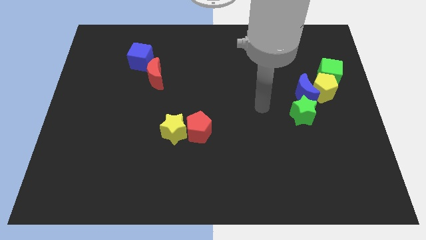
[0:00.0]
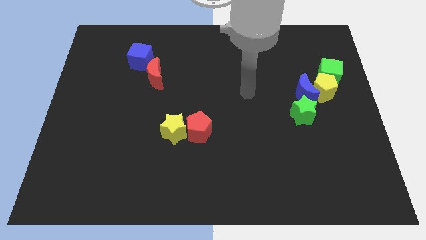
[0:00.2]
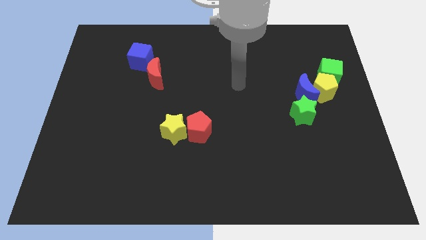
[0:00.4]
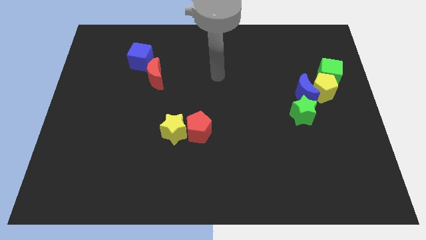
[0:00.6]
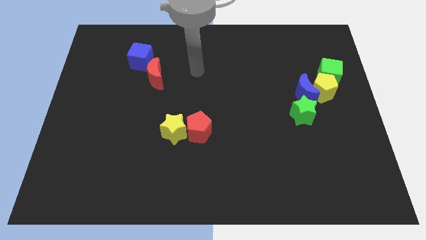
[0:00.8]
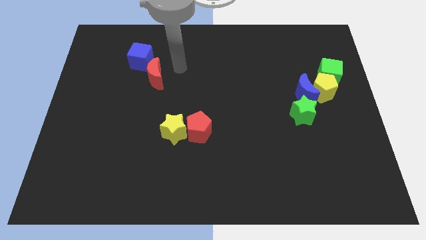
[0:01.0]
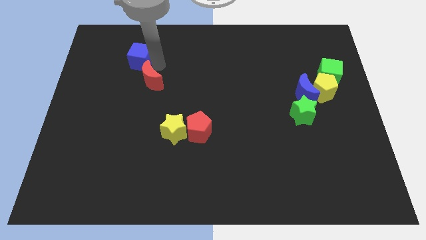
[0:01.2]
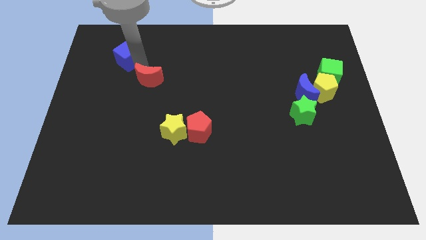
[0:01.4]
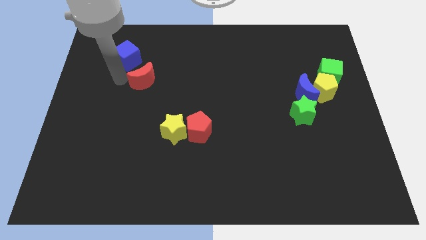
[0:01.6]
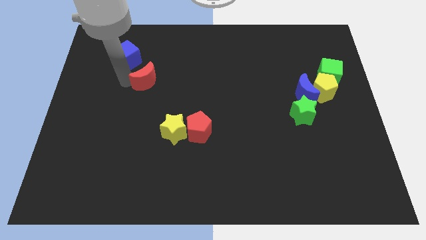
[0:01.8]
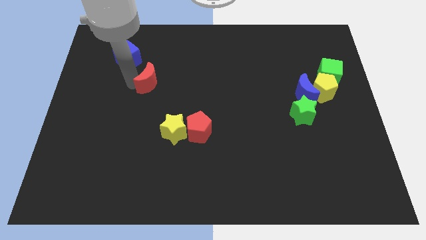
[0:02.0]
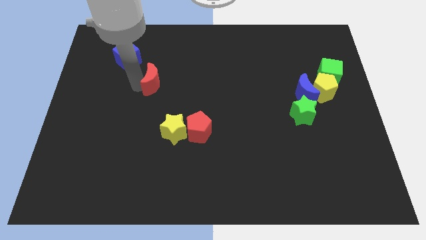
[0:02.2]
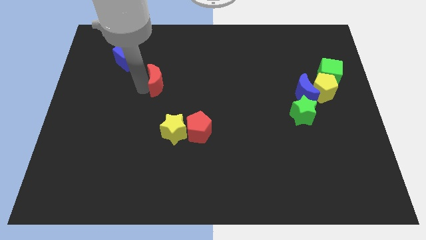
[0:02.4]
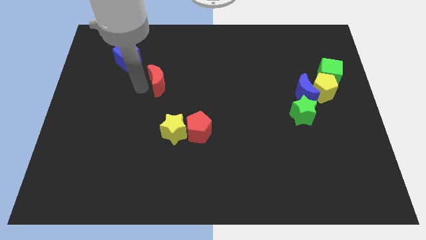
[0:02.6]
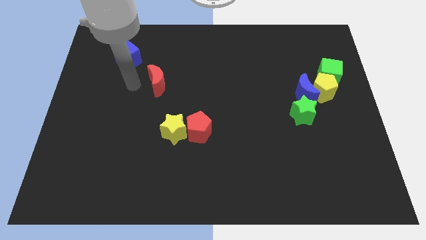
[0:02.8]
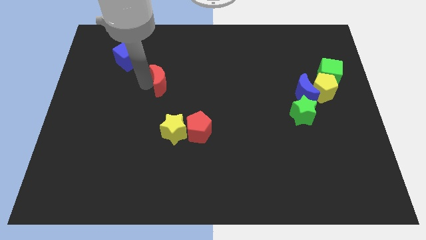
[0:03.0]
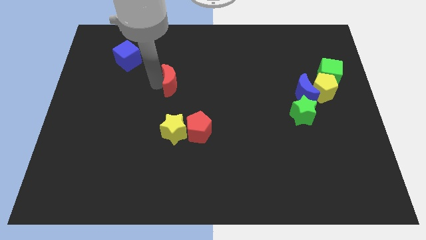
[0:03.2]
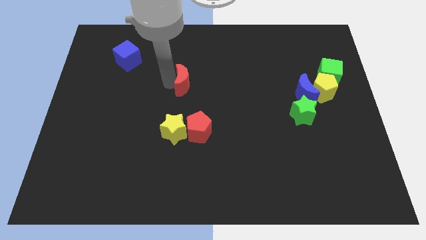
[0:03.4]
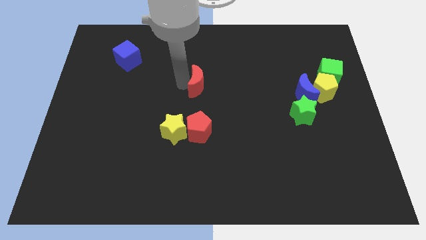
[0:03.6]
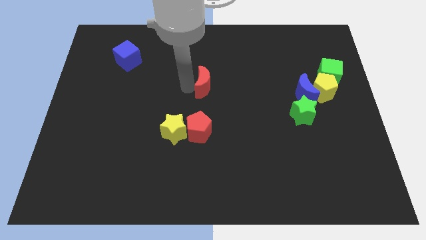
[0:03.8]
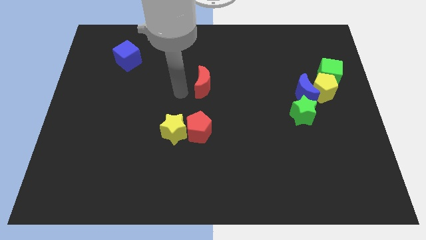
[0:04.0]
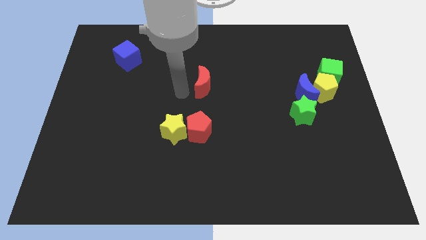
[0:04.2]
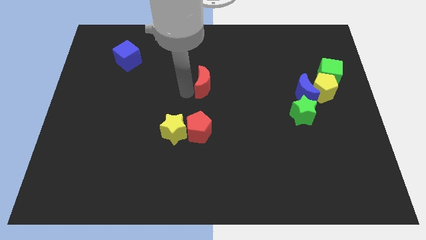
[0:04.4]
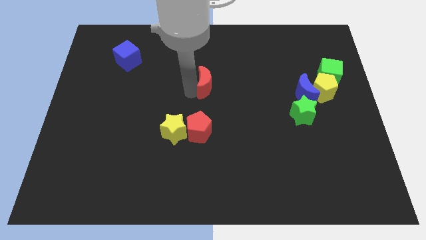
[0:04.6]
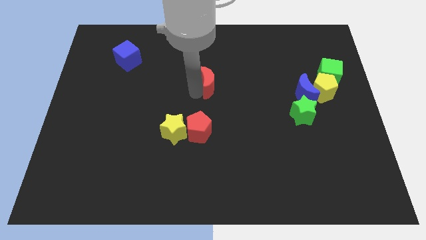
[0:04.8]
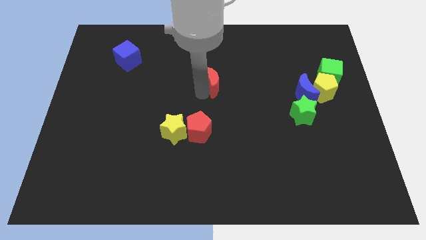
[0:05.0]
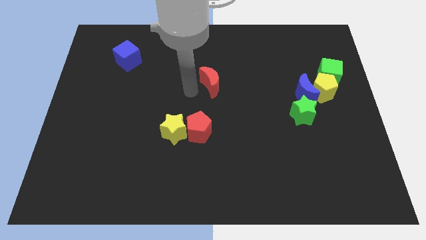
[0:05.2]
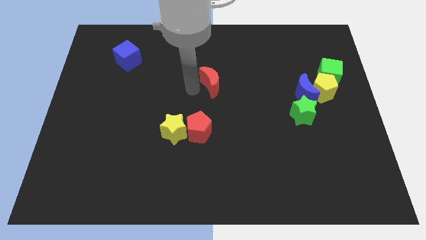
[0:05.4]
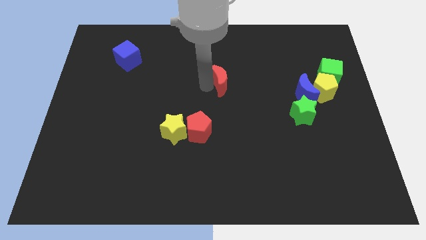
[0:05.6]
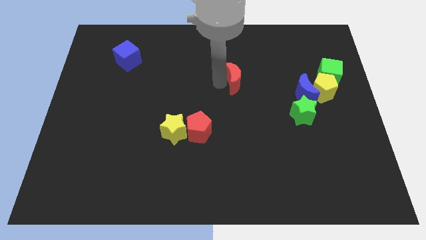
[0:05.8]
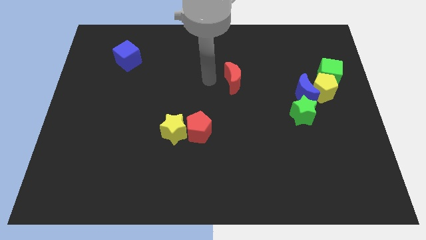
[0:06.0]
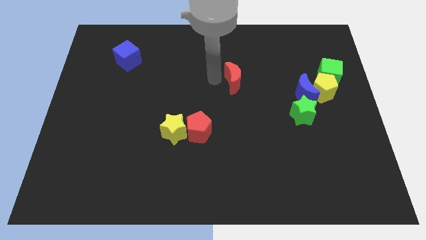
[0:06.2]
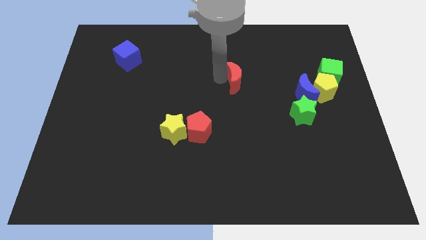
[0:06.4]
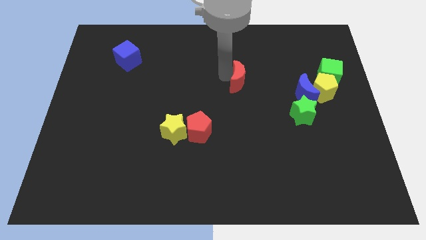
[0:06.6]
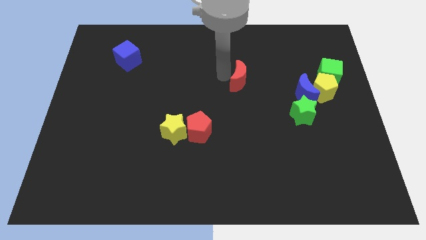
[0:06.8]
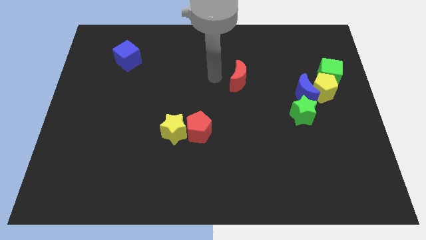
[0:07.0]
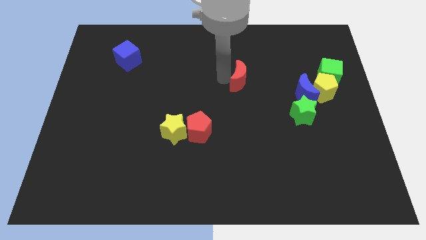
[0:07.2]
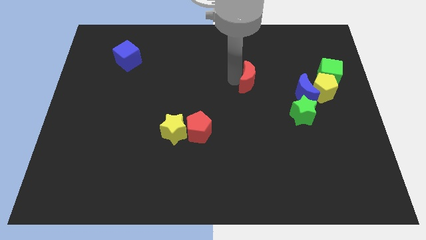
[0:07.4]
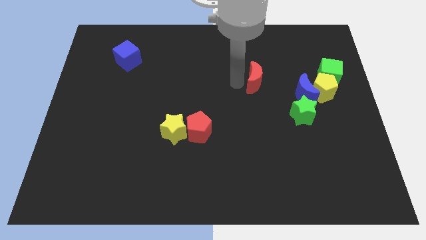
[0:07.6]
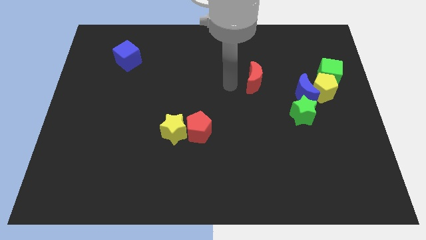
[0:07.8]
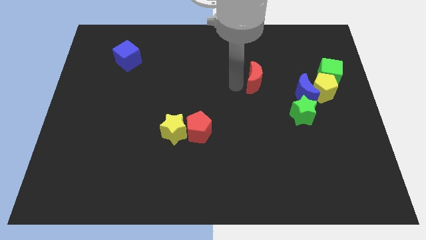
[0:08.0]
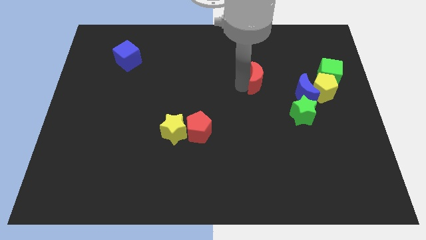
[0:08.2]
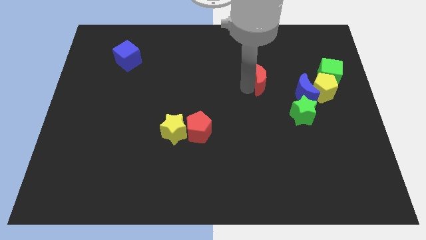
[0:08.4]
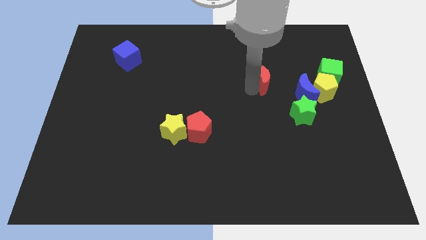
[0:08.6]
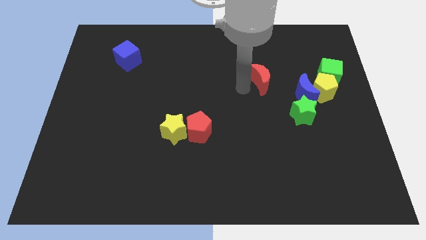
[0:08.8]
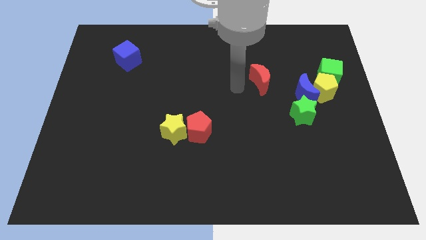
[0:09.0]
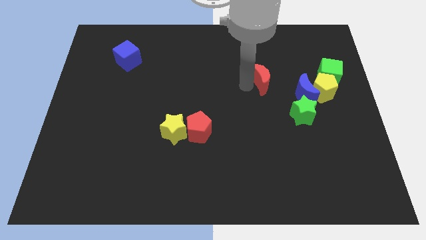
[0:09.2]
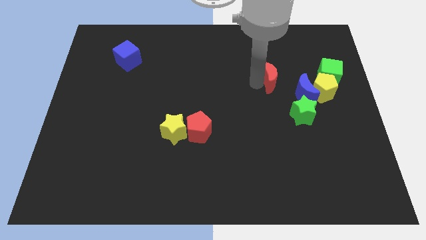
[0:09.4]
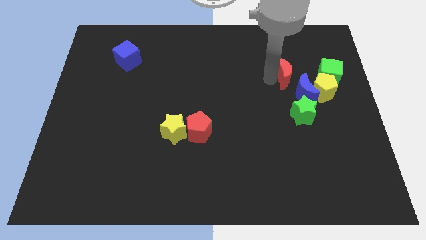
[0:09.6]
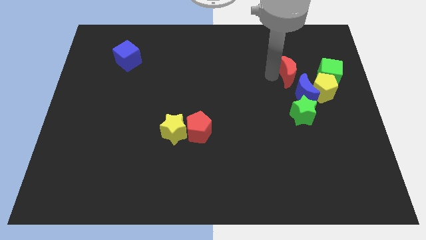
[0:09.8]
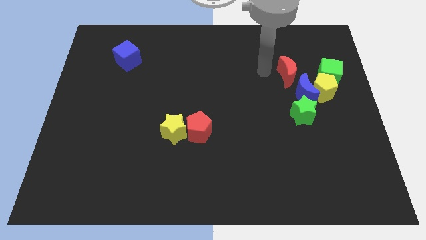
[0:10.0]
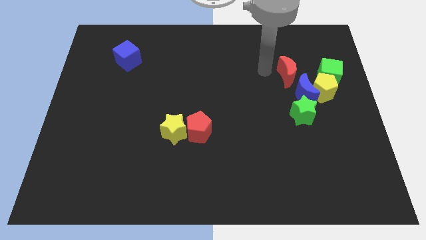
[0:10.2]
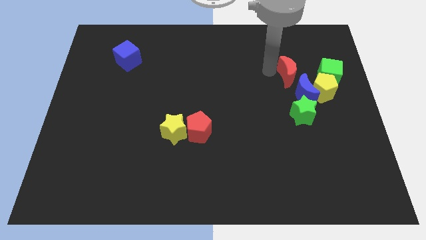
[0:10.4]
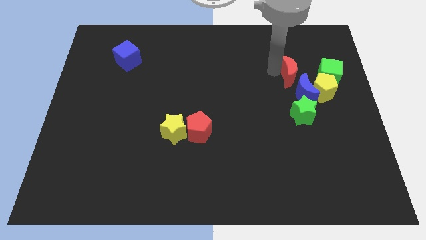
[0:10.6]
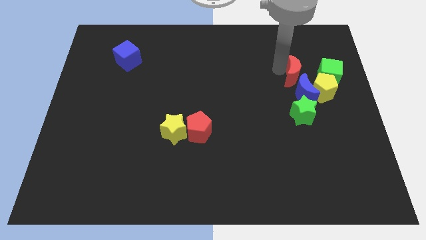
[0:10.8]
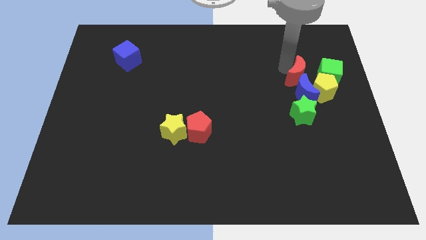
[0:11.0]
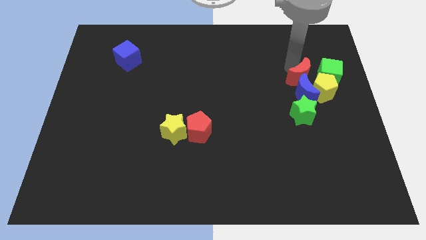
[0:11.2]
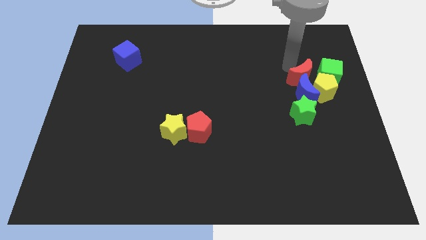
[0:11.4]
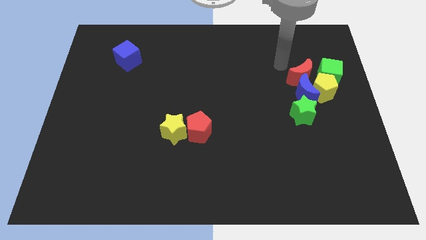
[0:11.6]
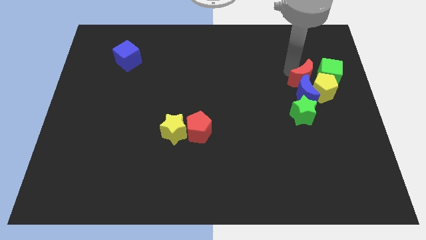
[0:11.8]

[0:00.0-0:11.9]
put the red moon next to the yellow pentagon

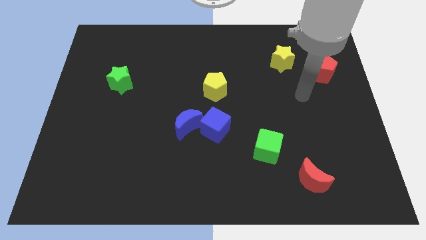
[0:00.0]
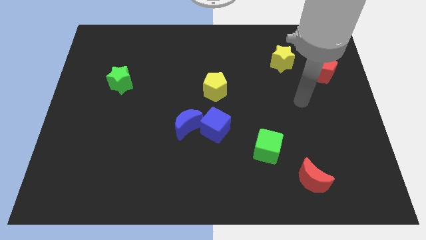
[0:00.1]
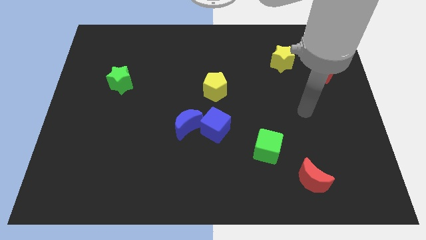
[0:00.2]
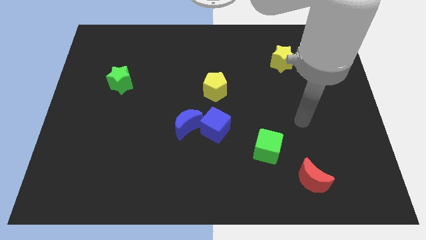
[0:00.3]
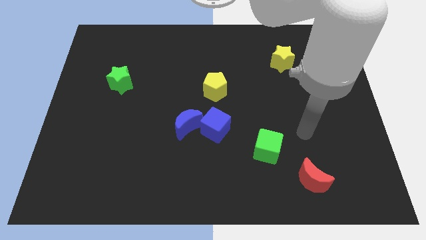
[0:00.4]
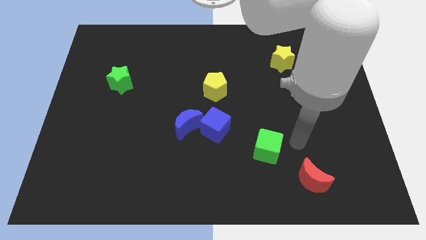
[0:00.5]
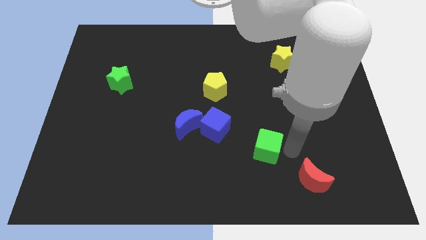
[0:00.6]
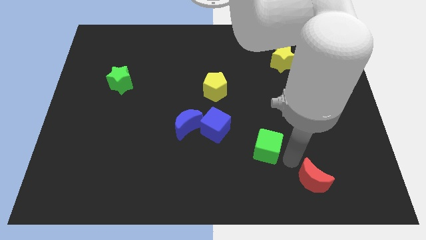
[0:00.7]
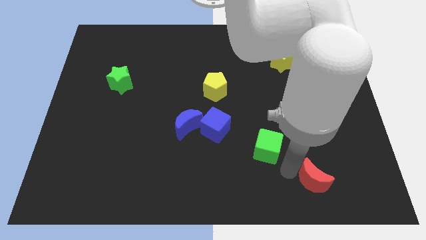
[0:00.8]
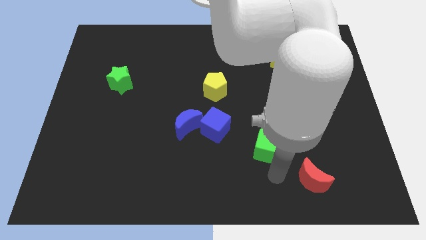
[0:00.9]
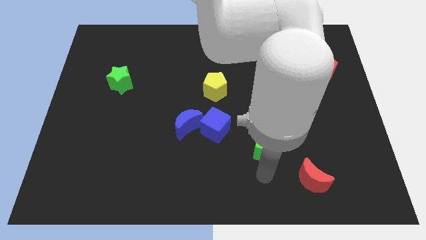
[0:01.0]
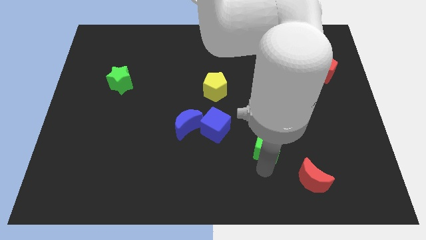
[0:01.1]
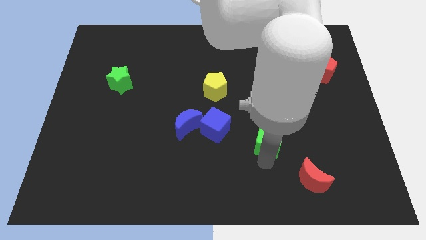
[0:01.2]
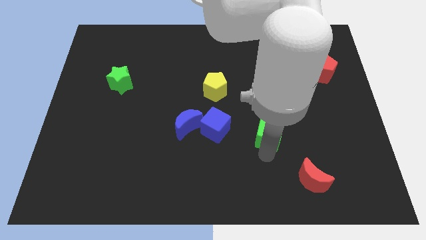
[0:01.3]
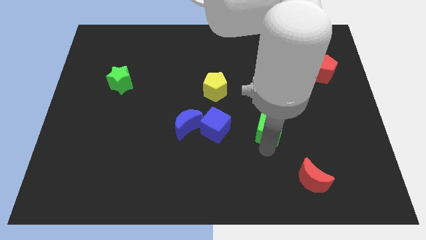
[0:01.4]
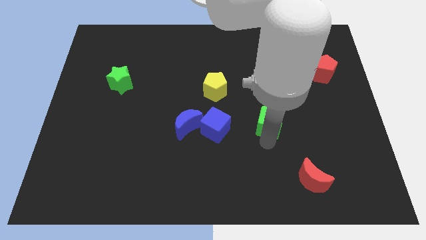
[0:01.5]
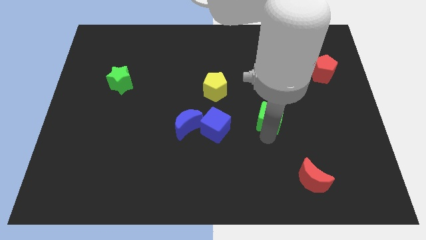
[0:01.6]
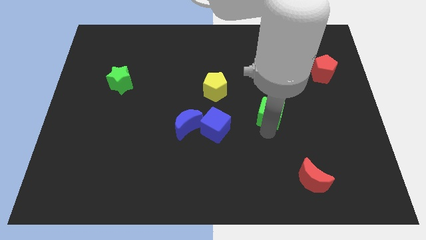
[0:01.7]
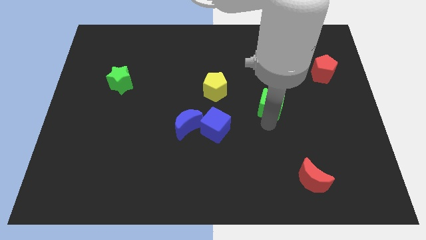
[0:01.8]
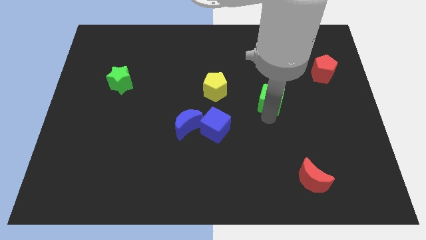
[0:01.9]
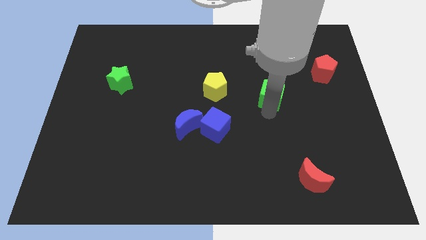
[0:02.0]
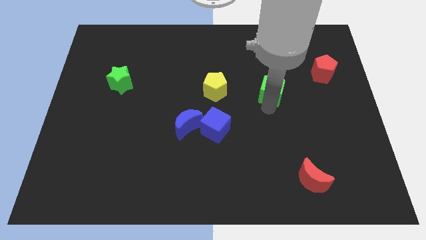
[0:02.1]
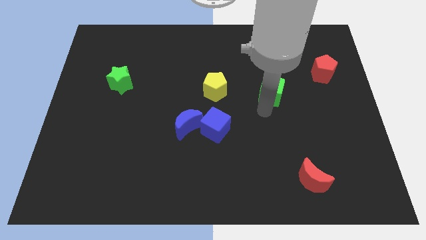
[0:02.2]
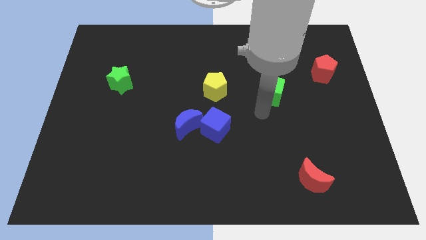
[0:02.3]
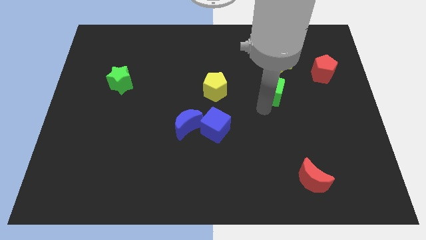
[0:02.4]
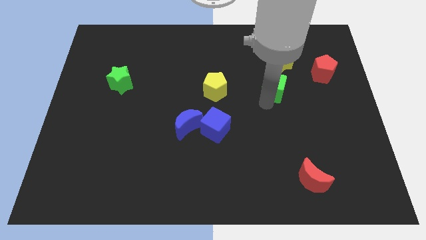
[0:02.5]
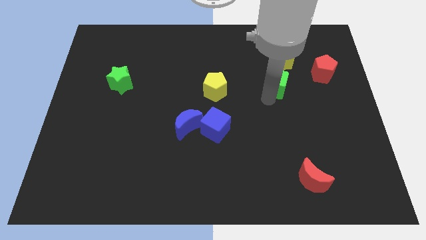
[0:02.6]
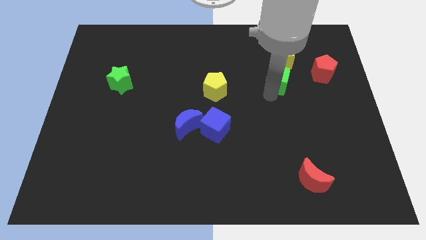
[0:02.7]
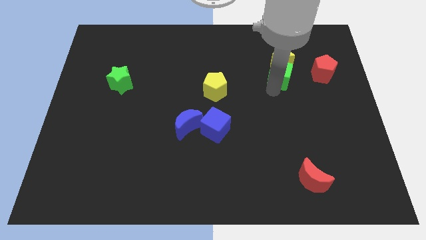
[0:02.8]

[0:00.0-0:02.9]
put the green cube next to the yellow star
